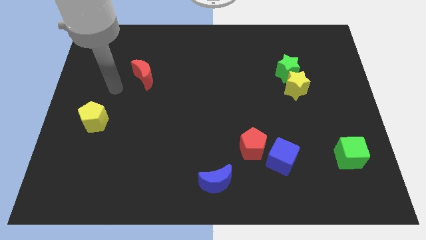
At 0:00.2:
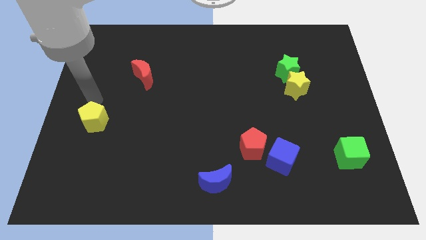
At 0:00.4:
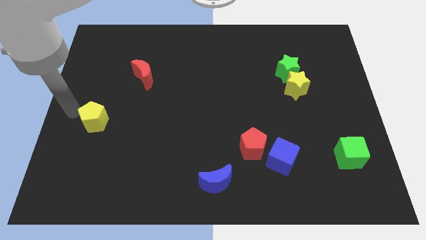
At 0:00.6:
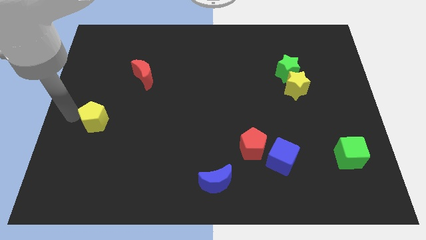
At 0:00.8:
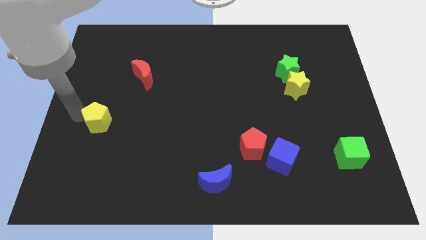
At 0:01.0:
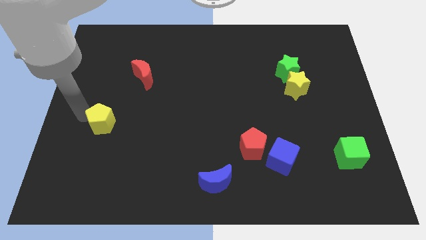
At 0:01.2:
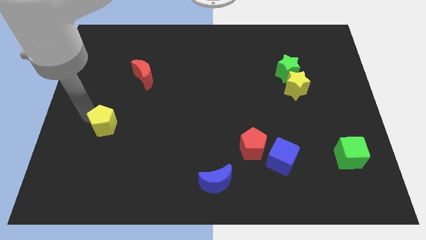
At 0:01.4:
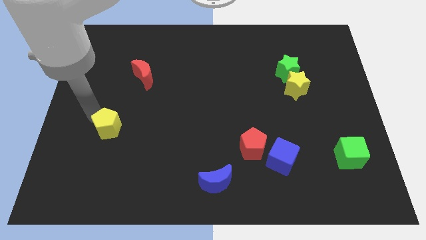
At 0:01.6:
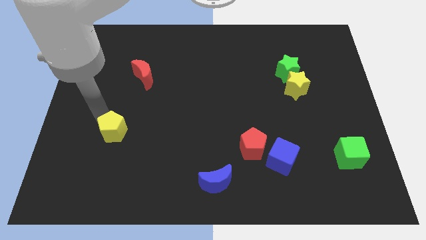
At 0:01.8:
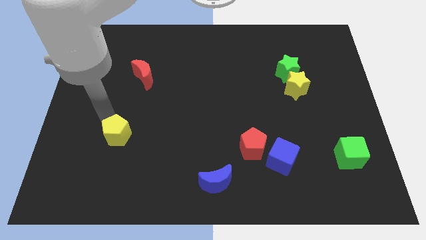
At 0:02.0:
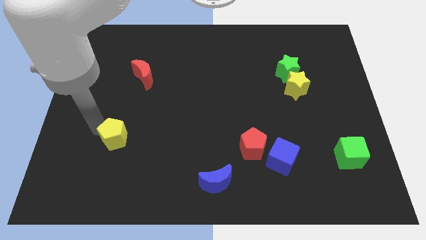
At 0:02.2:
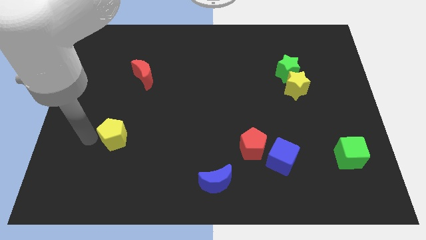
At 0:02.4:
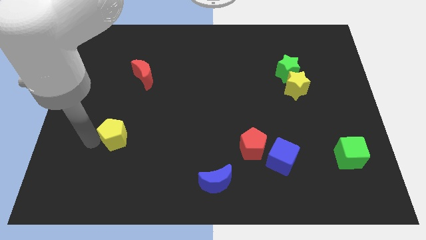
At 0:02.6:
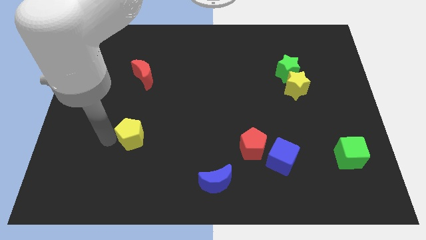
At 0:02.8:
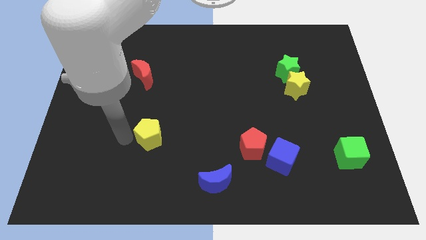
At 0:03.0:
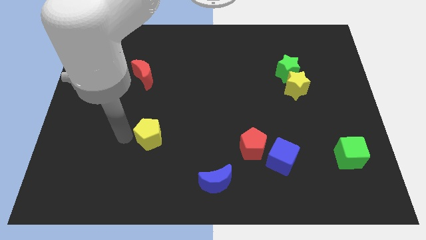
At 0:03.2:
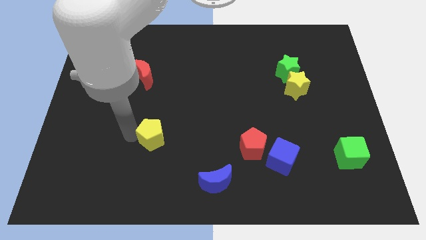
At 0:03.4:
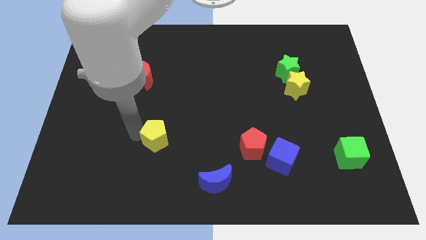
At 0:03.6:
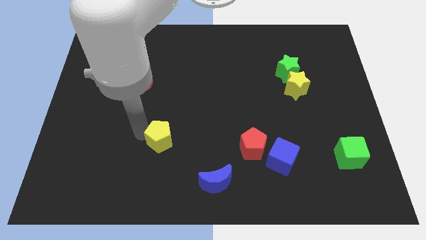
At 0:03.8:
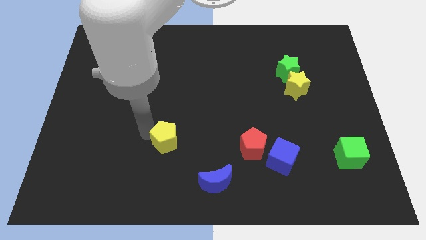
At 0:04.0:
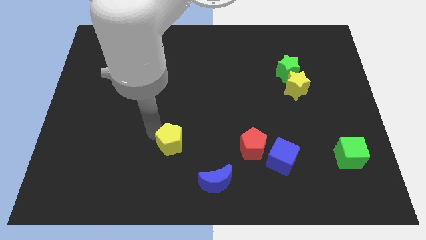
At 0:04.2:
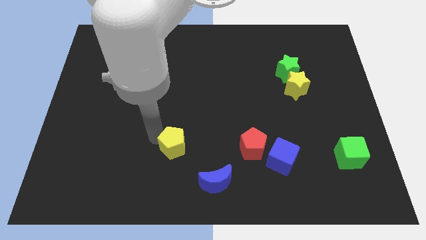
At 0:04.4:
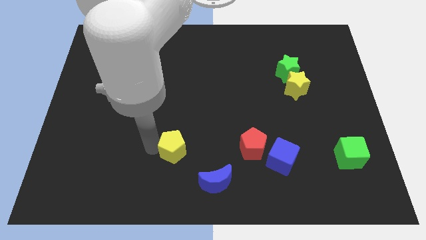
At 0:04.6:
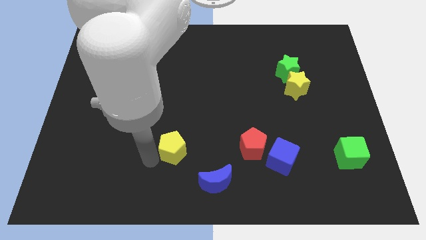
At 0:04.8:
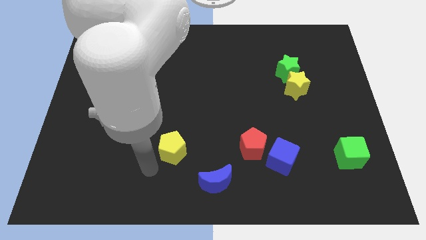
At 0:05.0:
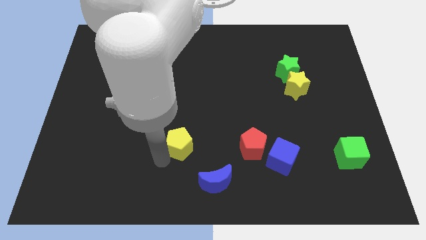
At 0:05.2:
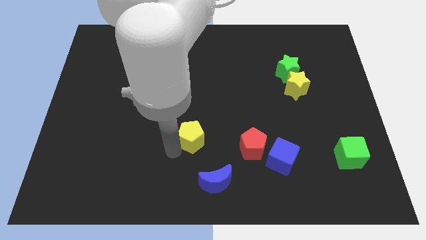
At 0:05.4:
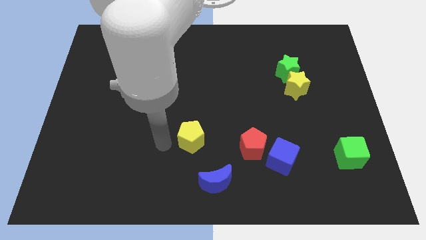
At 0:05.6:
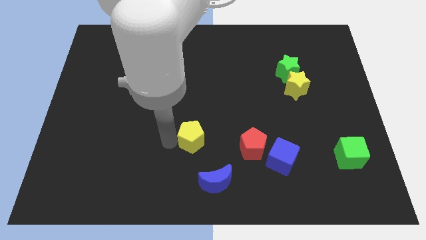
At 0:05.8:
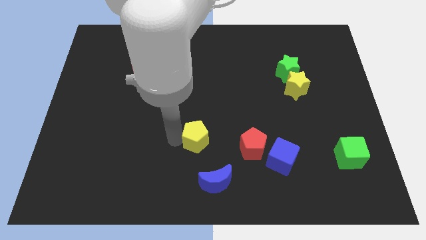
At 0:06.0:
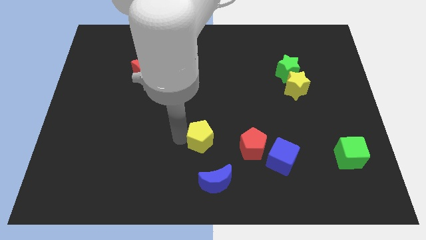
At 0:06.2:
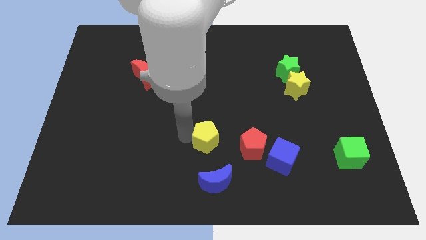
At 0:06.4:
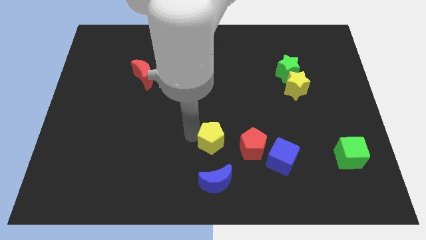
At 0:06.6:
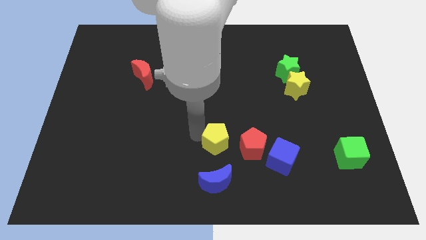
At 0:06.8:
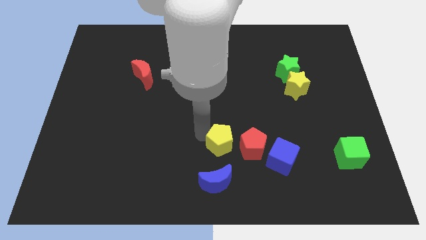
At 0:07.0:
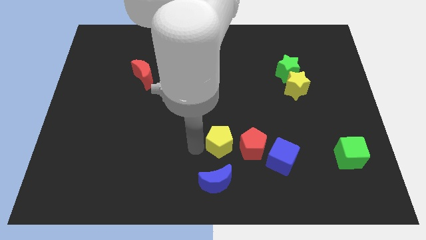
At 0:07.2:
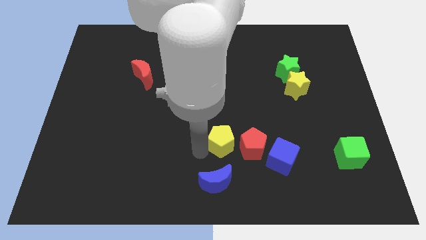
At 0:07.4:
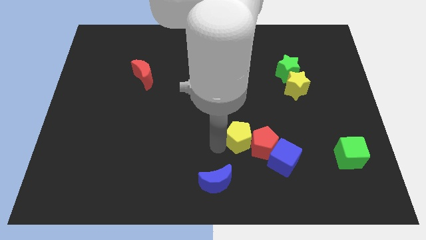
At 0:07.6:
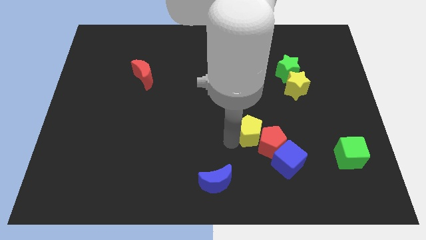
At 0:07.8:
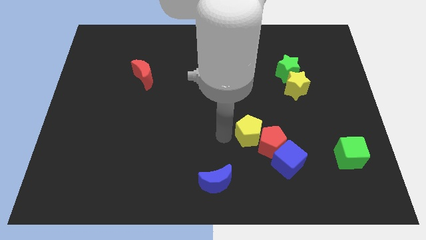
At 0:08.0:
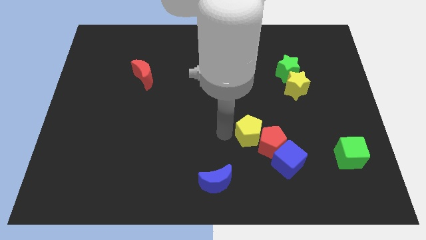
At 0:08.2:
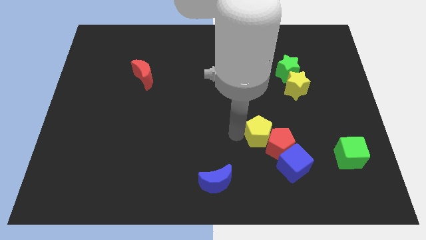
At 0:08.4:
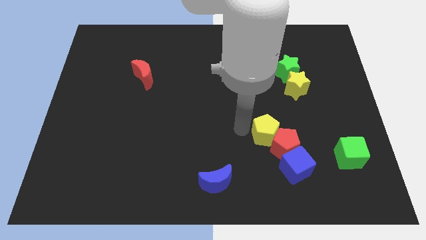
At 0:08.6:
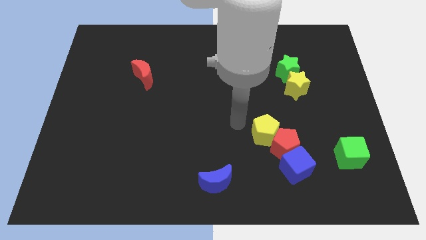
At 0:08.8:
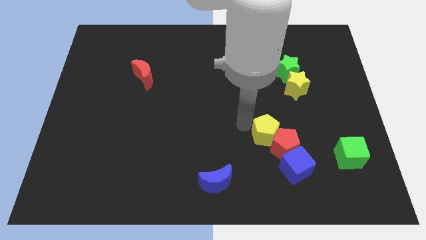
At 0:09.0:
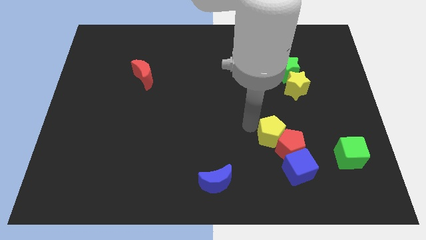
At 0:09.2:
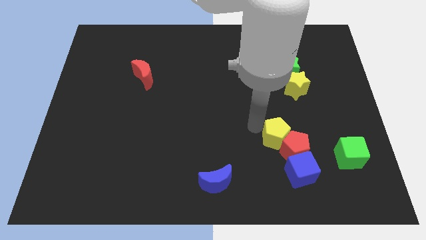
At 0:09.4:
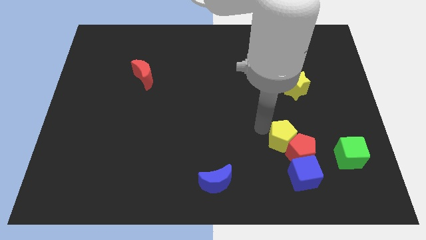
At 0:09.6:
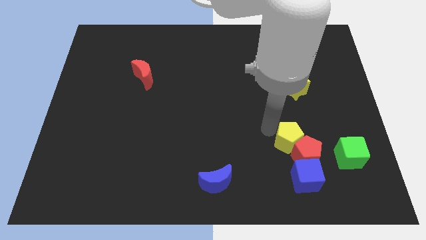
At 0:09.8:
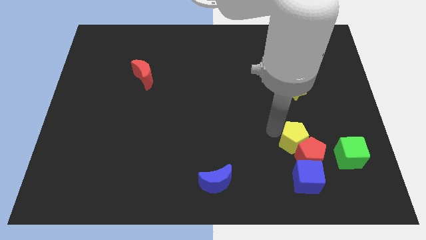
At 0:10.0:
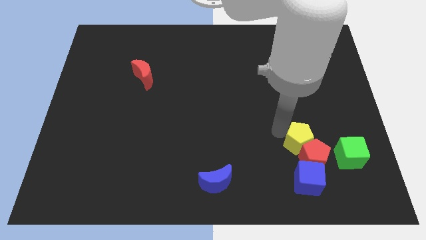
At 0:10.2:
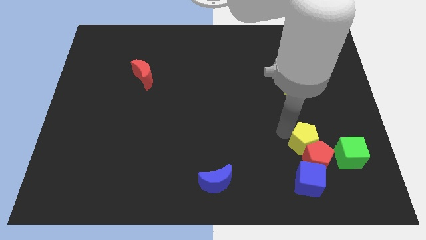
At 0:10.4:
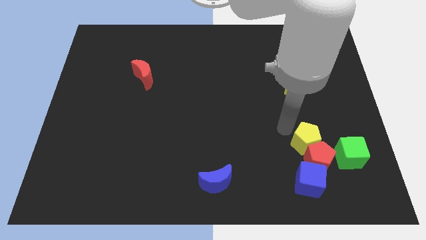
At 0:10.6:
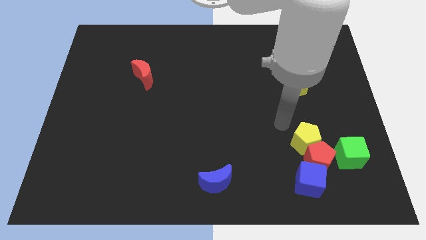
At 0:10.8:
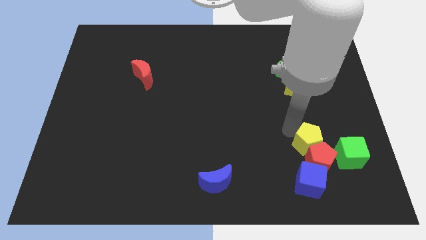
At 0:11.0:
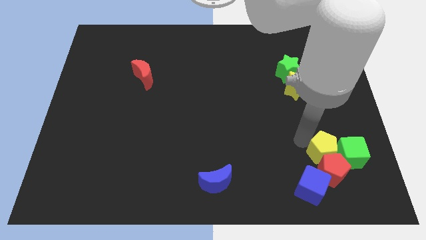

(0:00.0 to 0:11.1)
slide the yellow pentagon next to the green cube

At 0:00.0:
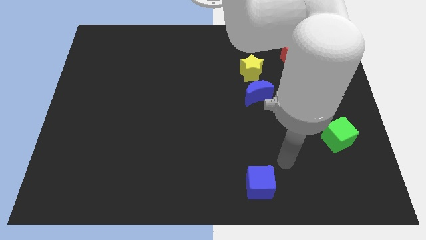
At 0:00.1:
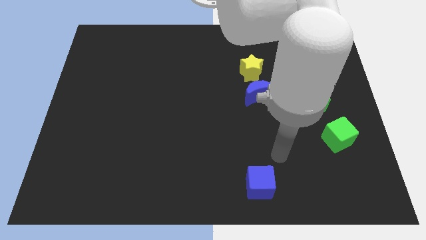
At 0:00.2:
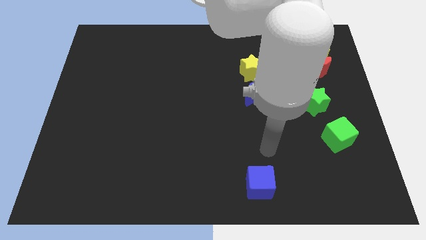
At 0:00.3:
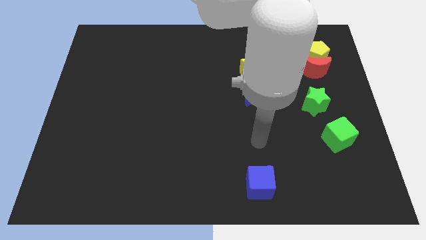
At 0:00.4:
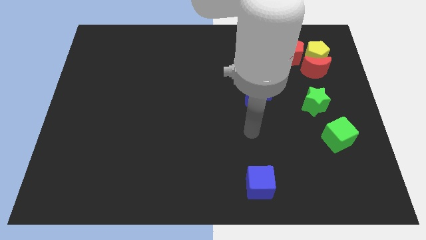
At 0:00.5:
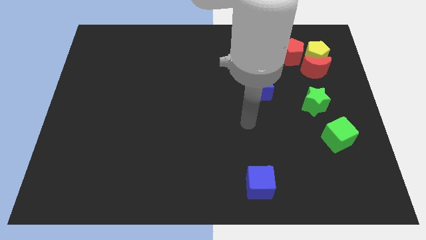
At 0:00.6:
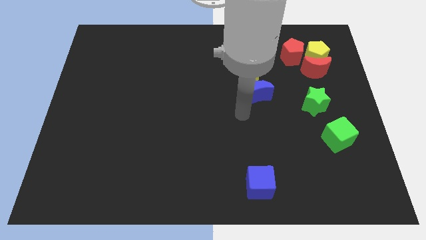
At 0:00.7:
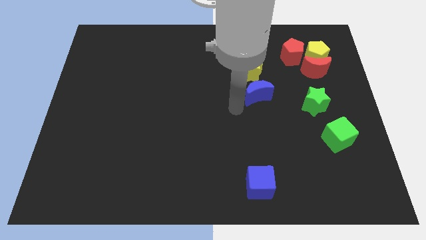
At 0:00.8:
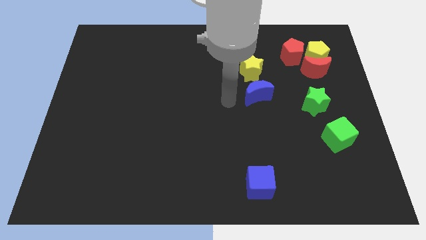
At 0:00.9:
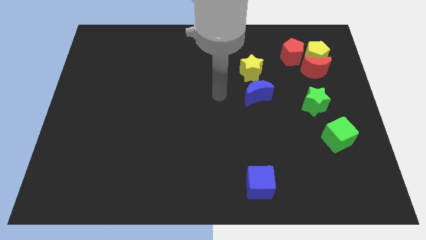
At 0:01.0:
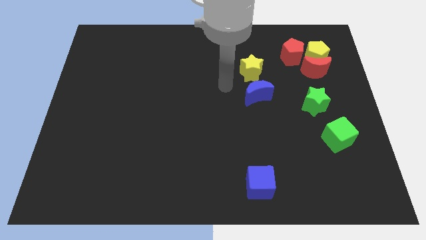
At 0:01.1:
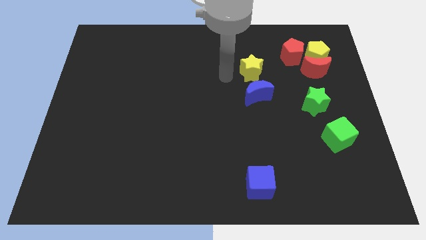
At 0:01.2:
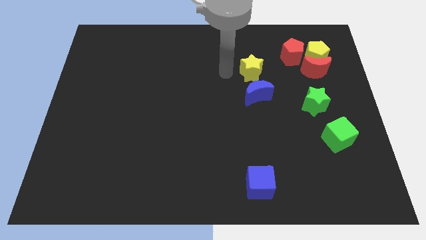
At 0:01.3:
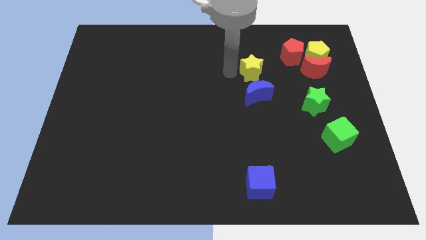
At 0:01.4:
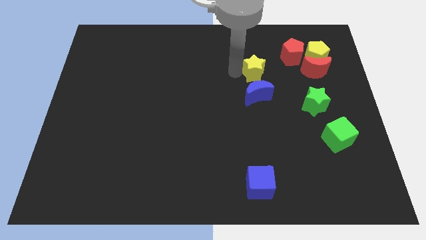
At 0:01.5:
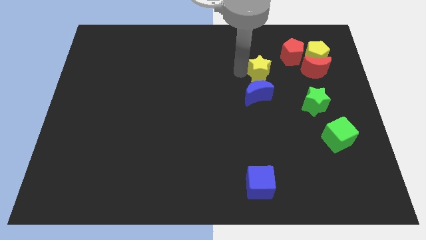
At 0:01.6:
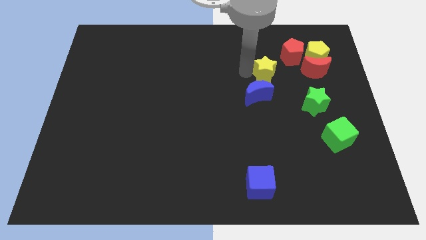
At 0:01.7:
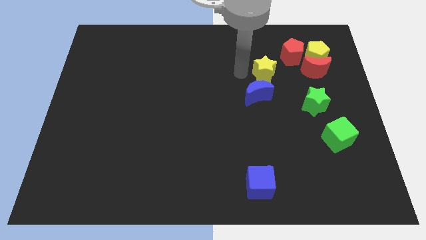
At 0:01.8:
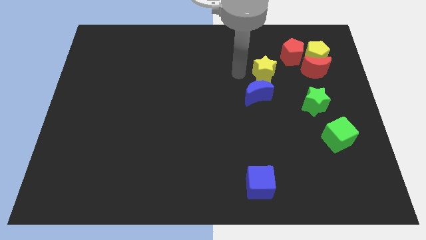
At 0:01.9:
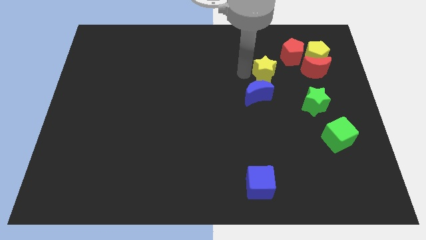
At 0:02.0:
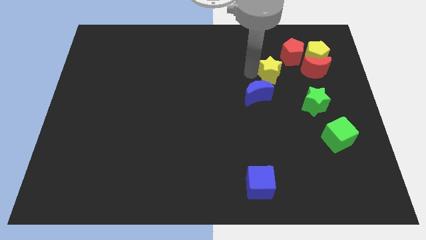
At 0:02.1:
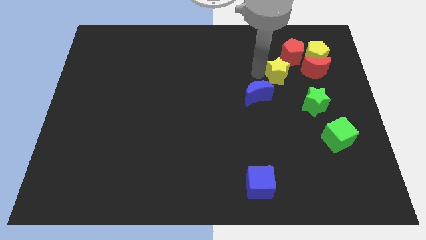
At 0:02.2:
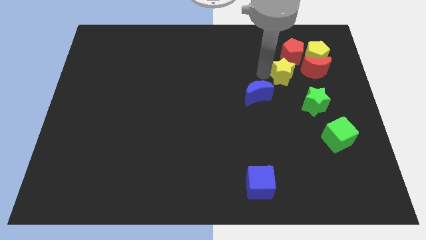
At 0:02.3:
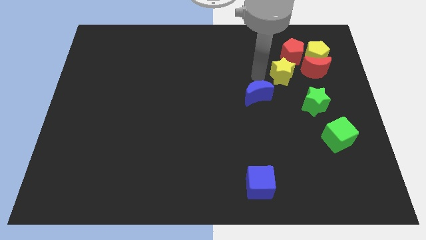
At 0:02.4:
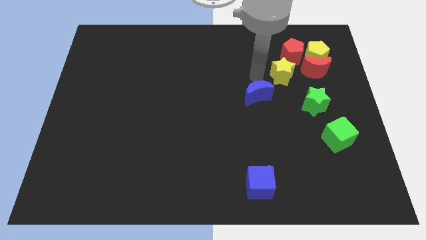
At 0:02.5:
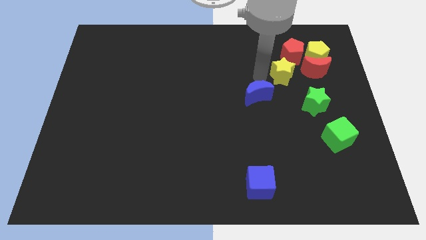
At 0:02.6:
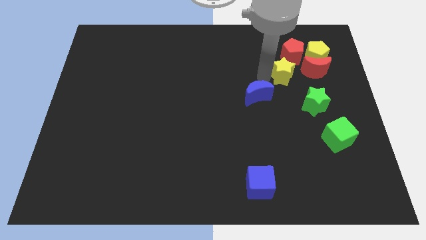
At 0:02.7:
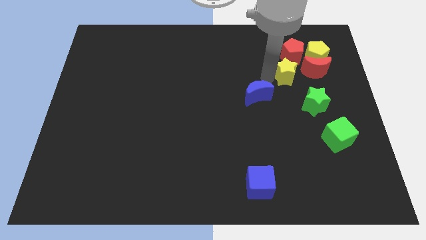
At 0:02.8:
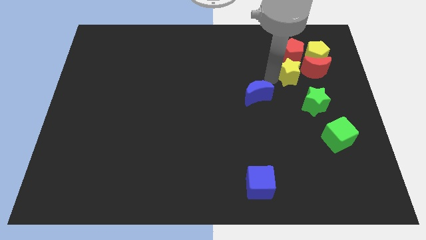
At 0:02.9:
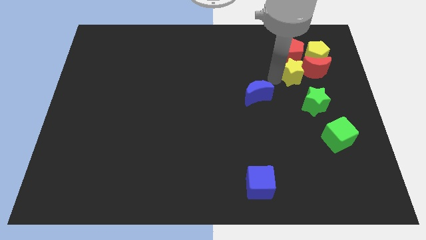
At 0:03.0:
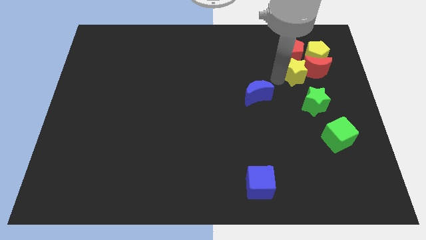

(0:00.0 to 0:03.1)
slide the yellow star next to the red moon
